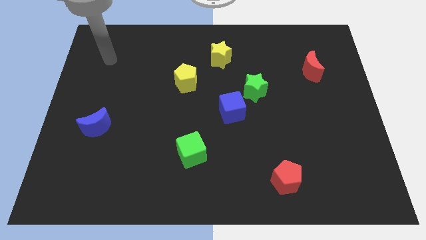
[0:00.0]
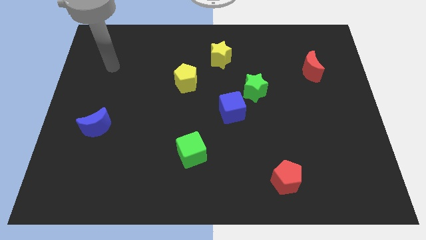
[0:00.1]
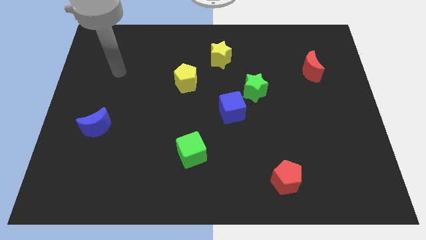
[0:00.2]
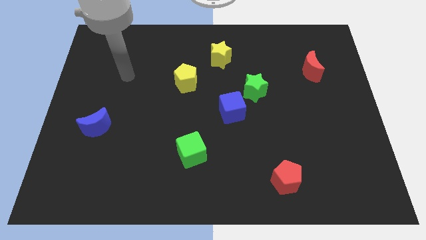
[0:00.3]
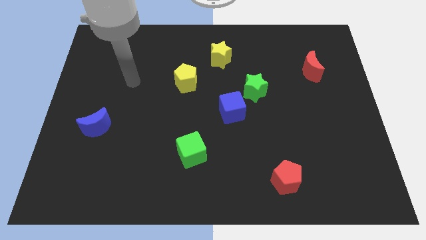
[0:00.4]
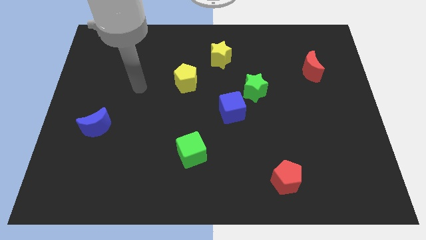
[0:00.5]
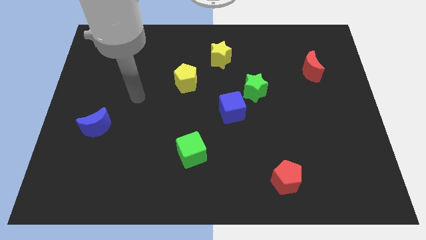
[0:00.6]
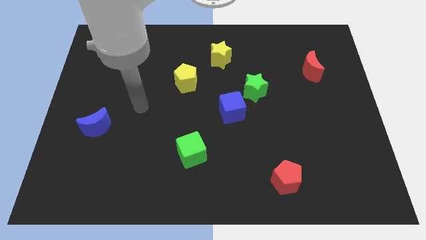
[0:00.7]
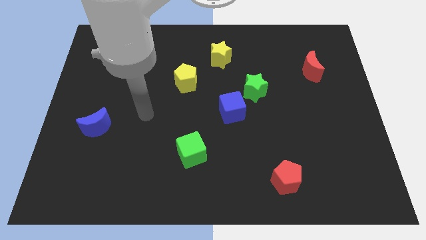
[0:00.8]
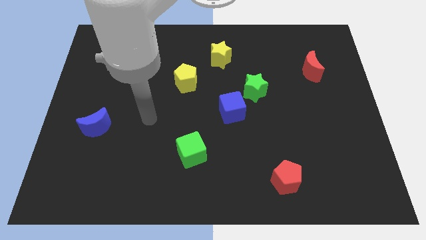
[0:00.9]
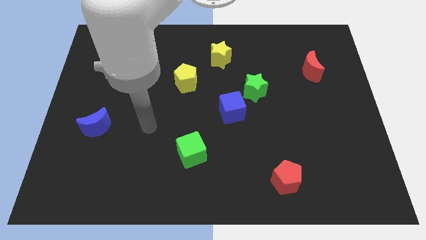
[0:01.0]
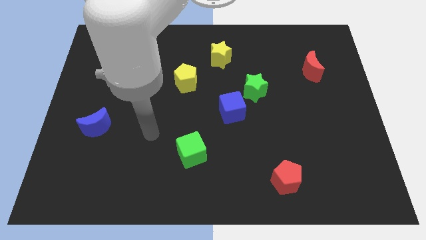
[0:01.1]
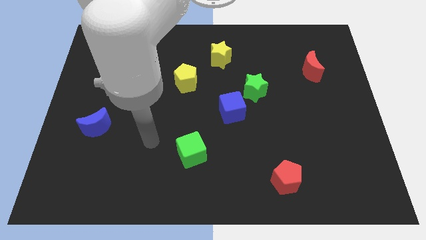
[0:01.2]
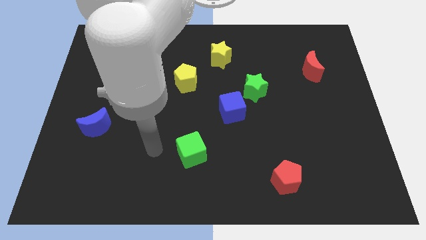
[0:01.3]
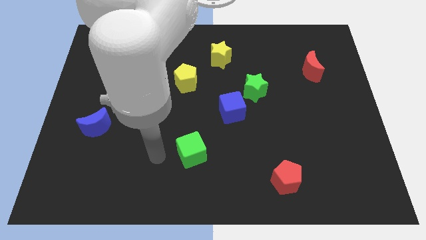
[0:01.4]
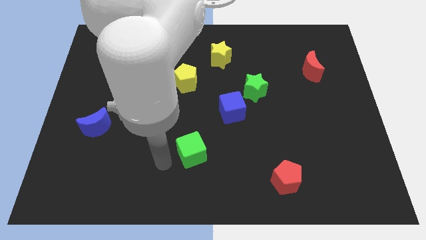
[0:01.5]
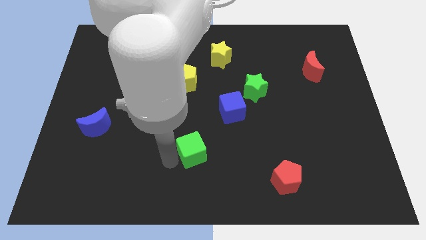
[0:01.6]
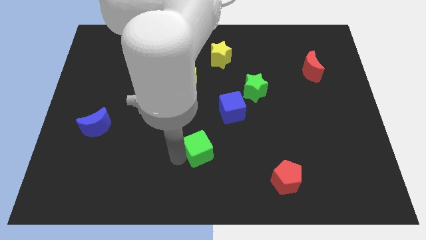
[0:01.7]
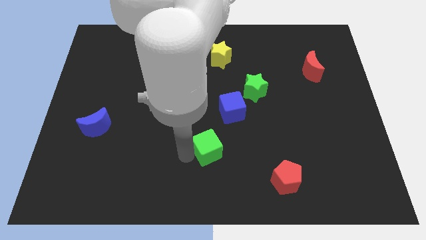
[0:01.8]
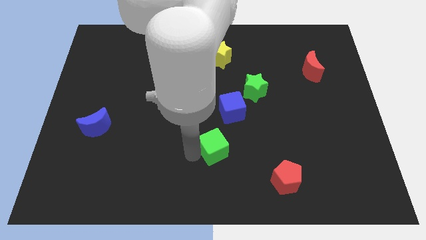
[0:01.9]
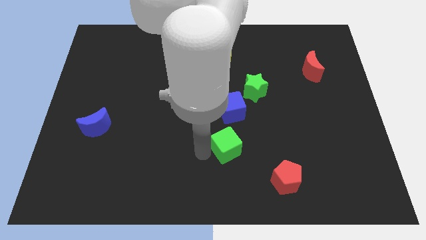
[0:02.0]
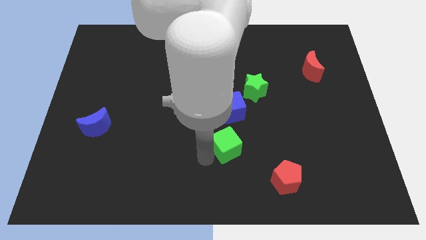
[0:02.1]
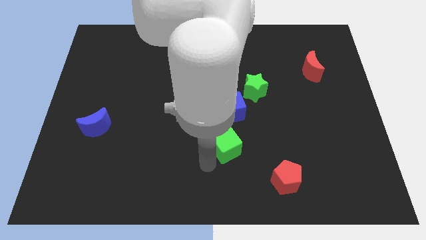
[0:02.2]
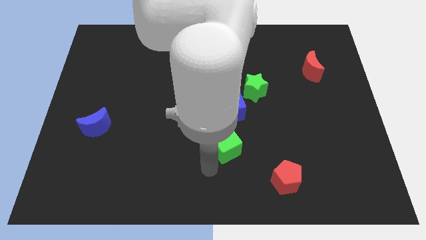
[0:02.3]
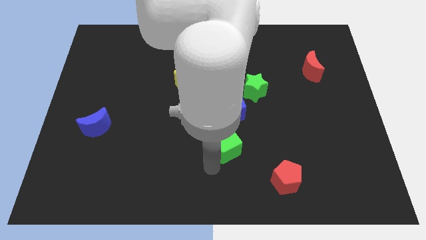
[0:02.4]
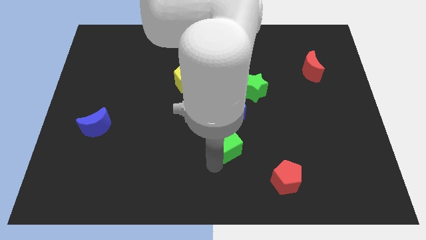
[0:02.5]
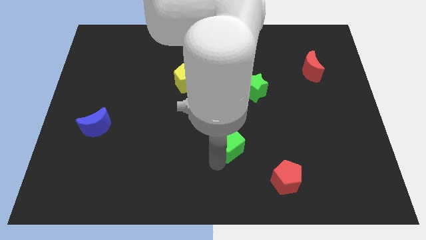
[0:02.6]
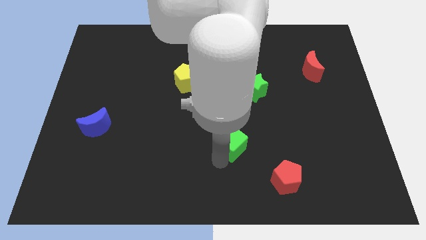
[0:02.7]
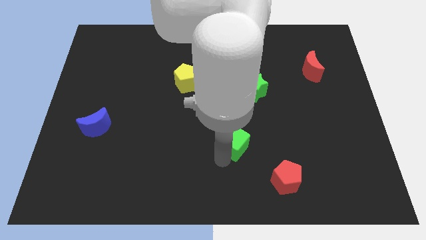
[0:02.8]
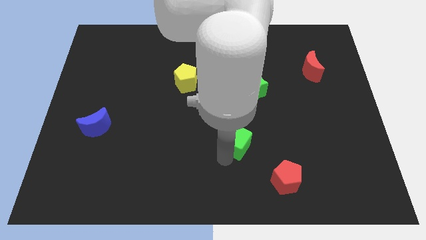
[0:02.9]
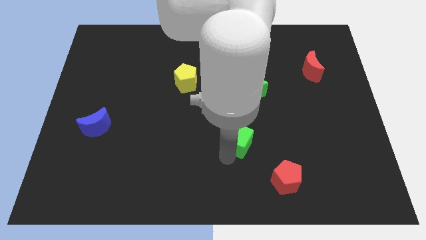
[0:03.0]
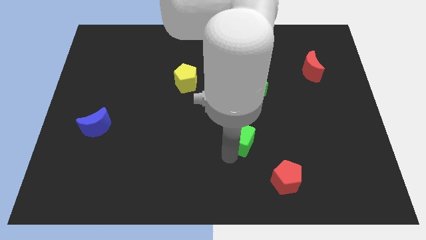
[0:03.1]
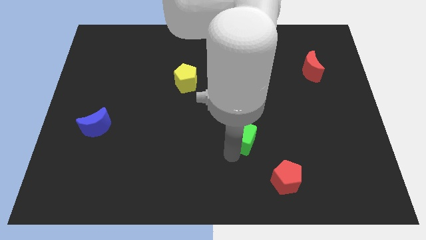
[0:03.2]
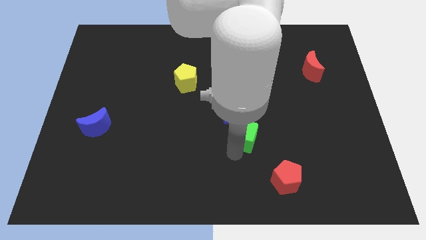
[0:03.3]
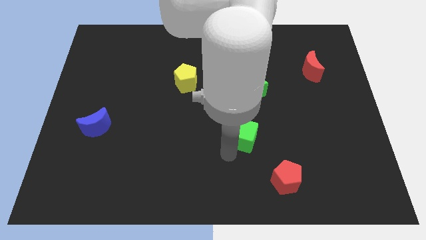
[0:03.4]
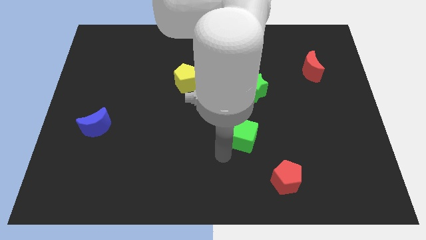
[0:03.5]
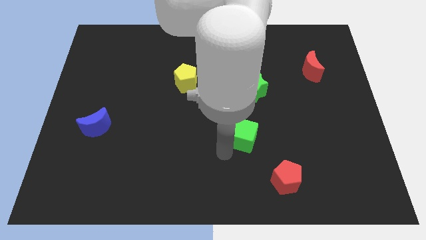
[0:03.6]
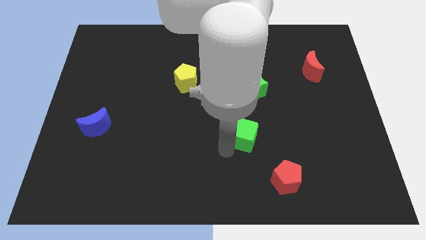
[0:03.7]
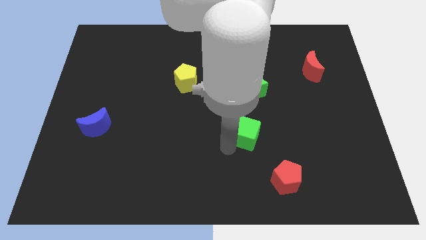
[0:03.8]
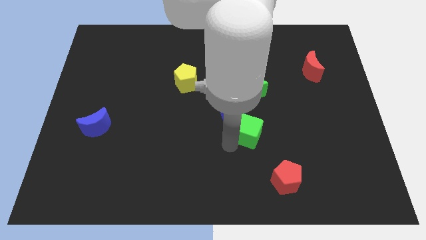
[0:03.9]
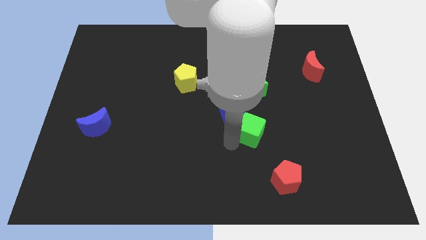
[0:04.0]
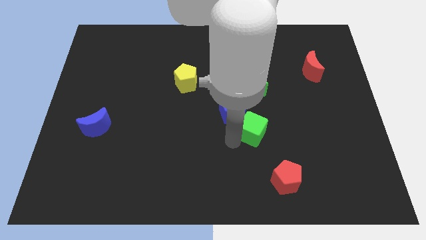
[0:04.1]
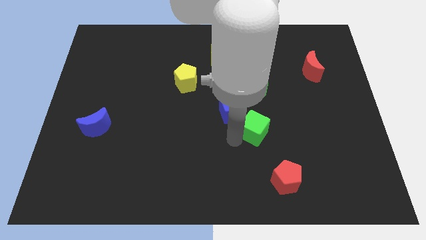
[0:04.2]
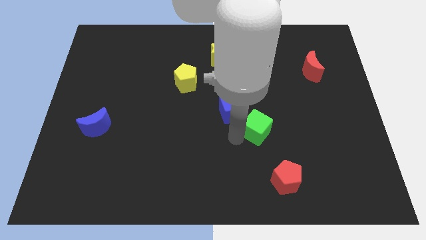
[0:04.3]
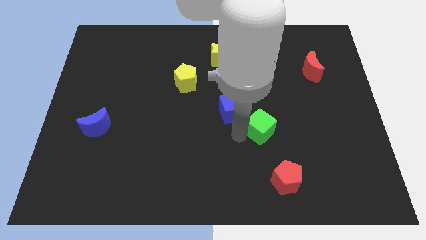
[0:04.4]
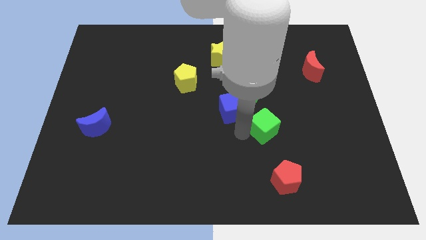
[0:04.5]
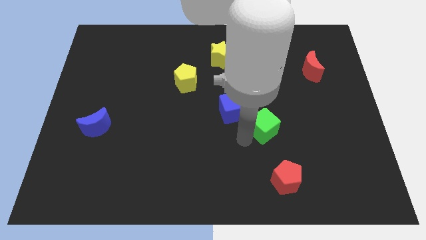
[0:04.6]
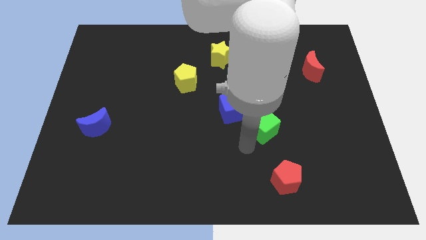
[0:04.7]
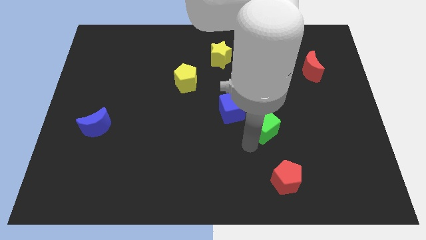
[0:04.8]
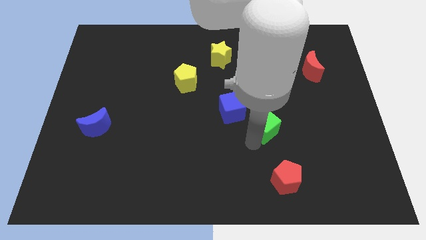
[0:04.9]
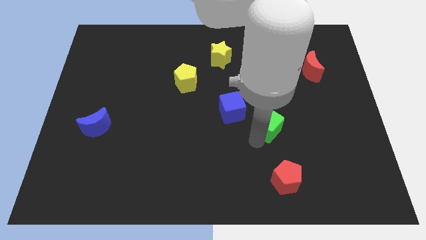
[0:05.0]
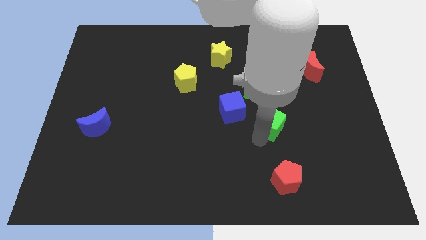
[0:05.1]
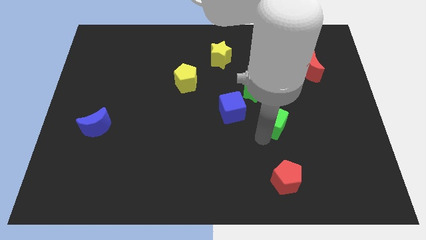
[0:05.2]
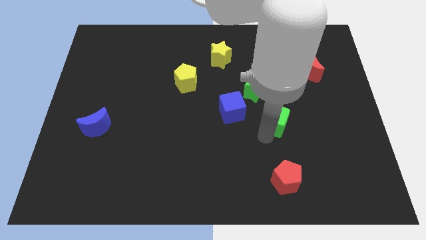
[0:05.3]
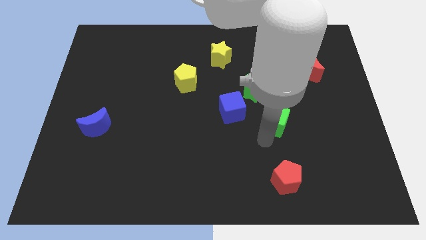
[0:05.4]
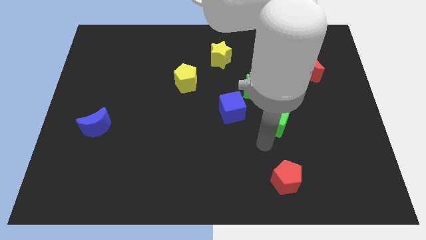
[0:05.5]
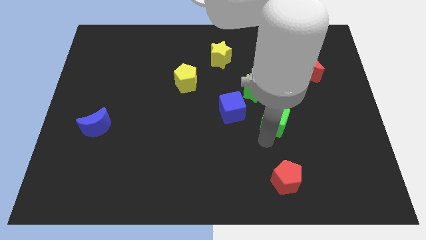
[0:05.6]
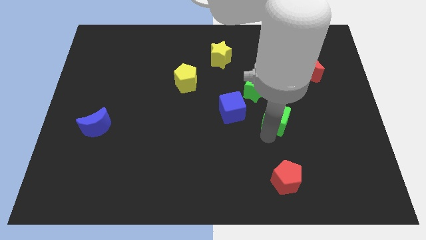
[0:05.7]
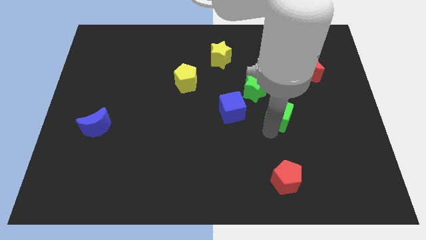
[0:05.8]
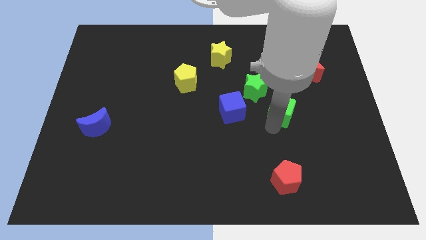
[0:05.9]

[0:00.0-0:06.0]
push the green cube up and to the right diagonally

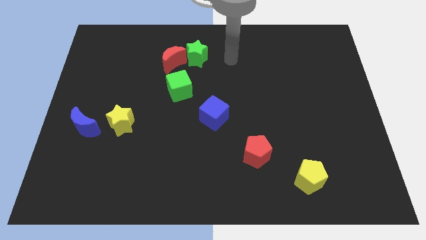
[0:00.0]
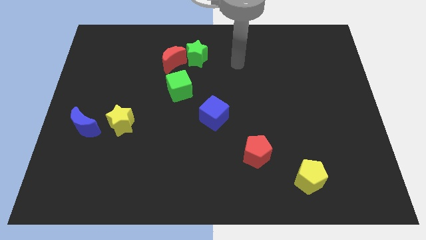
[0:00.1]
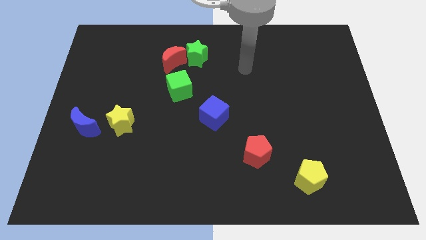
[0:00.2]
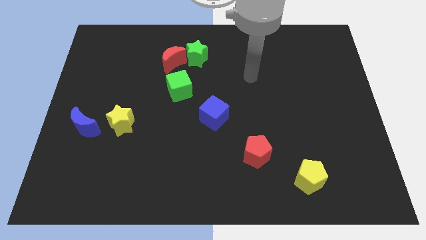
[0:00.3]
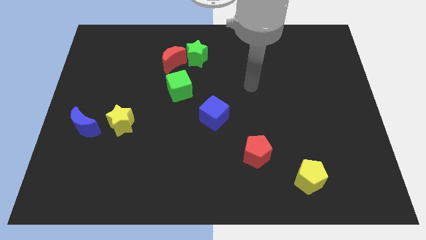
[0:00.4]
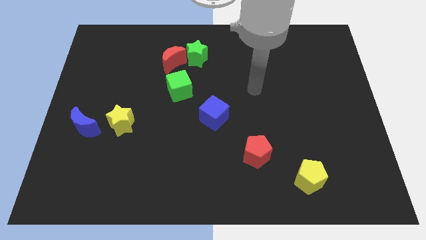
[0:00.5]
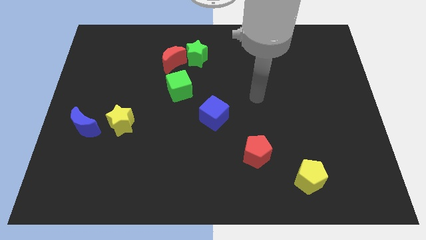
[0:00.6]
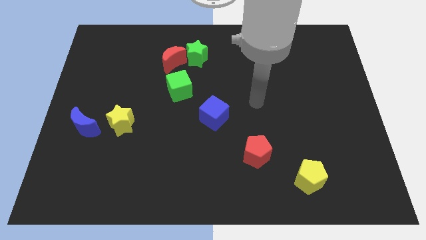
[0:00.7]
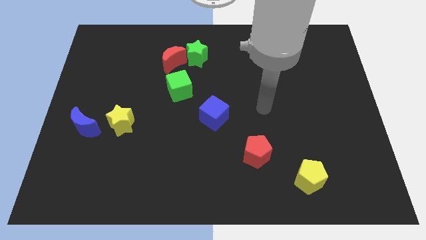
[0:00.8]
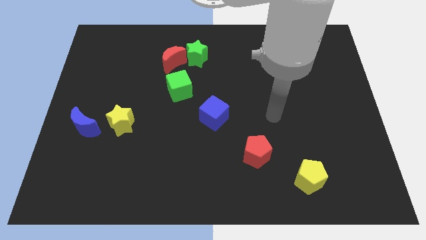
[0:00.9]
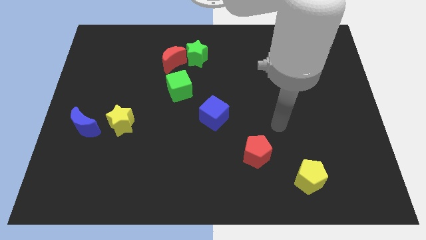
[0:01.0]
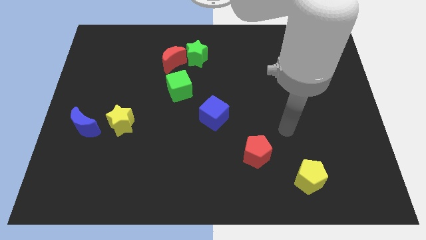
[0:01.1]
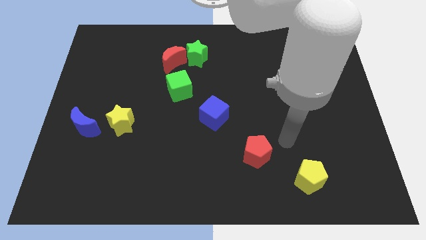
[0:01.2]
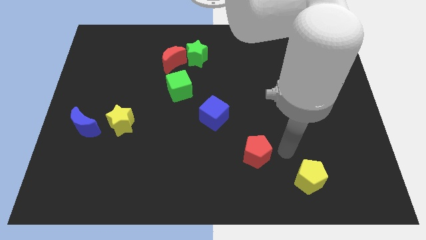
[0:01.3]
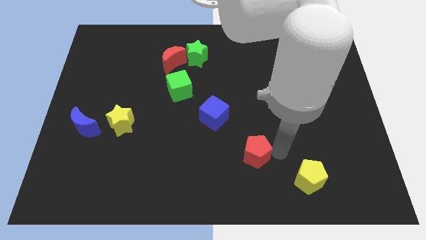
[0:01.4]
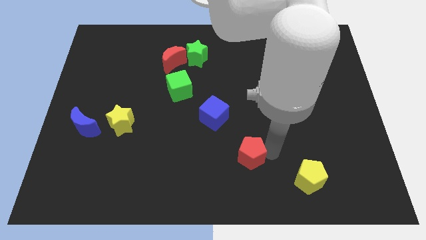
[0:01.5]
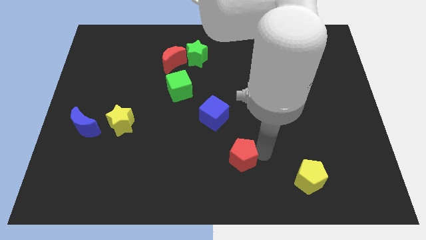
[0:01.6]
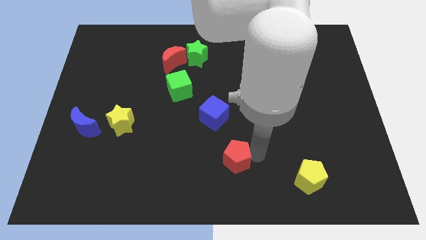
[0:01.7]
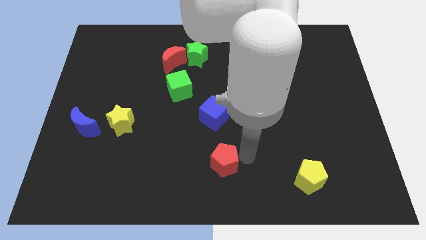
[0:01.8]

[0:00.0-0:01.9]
slide the red pentagon slightly to the left
